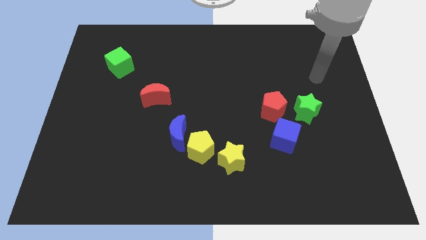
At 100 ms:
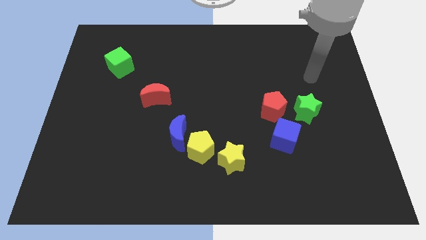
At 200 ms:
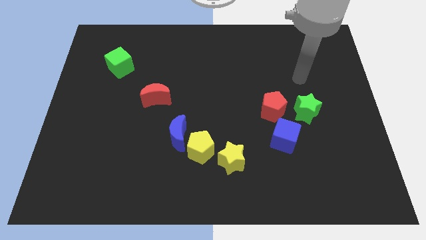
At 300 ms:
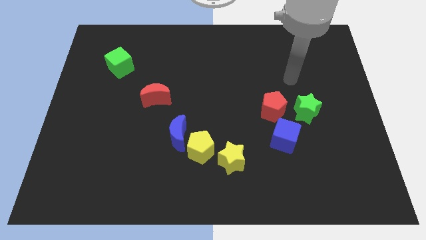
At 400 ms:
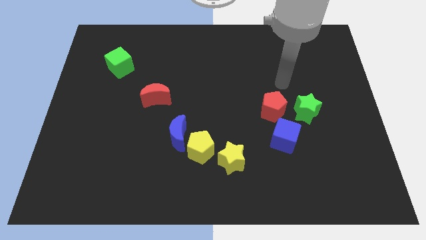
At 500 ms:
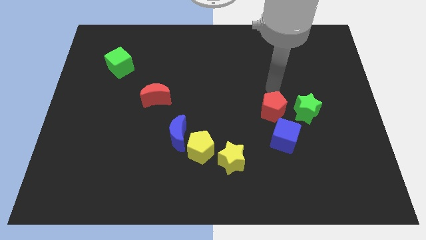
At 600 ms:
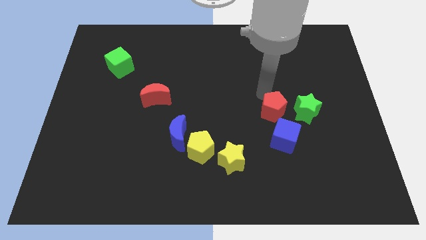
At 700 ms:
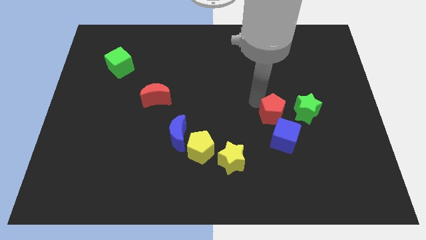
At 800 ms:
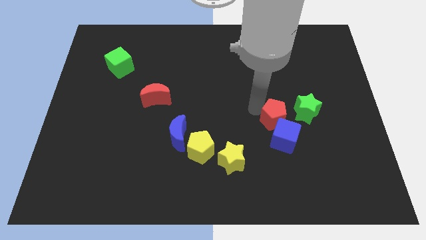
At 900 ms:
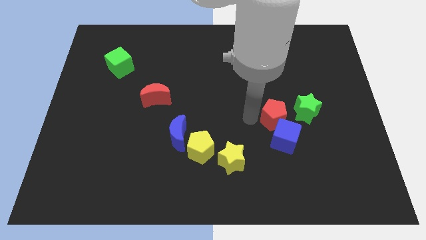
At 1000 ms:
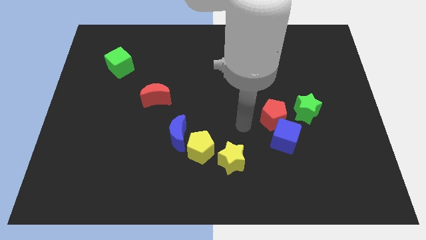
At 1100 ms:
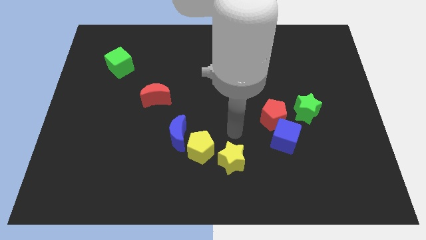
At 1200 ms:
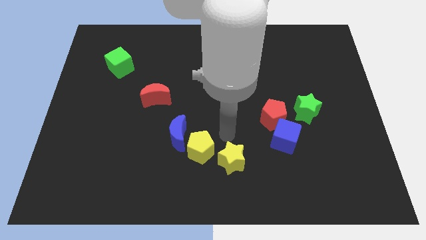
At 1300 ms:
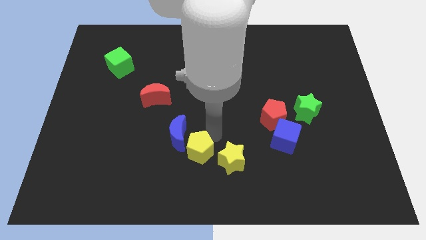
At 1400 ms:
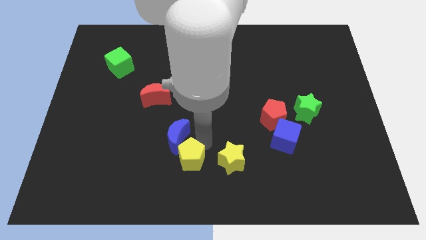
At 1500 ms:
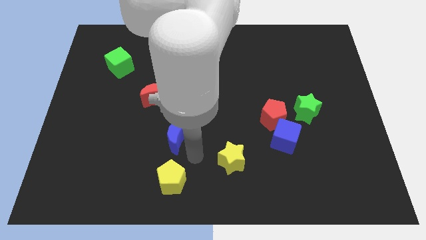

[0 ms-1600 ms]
move the blue moon away from the yellow pentagon

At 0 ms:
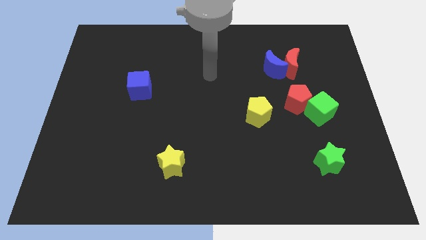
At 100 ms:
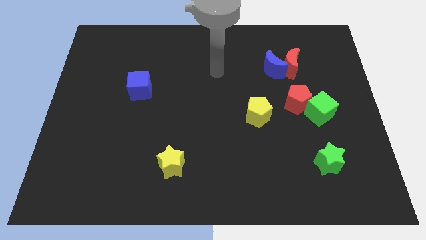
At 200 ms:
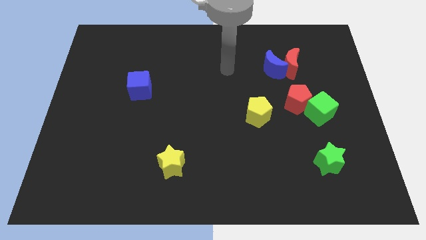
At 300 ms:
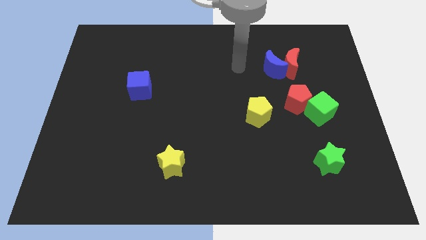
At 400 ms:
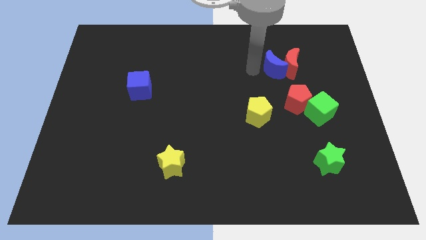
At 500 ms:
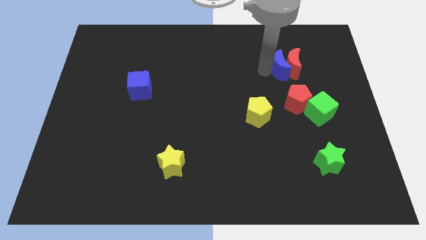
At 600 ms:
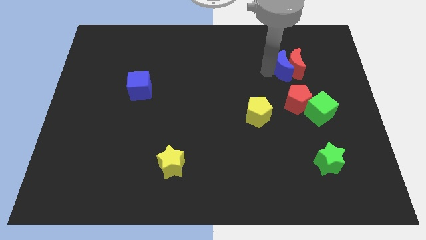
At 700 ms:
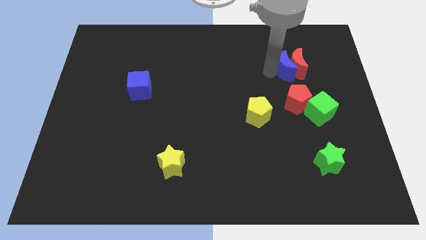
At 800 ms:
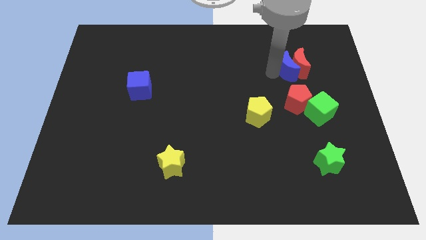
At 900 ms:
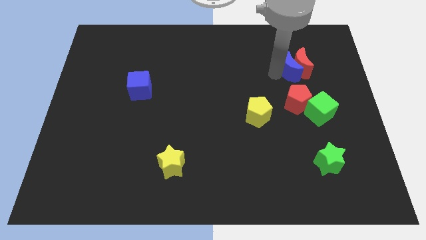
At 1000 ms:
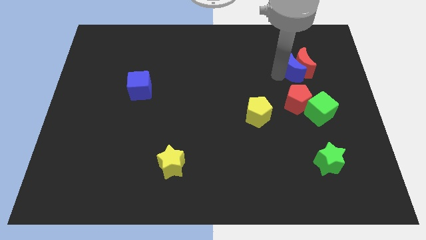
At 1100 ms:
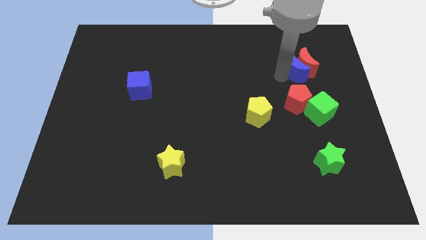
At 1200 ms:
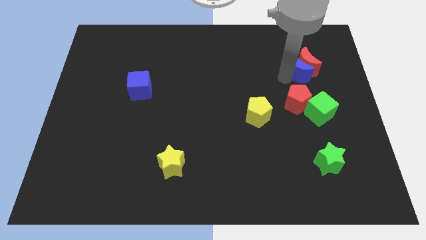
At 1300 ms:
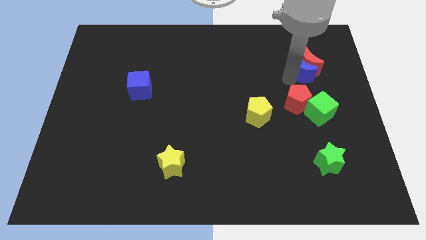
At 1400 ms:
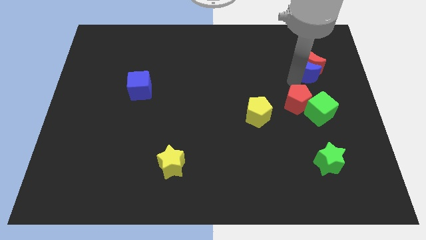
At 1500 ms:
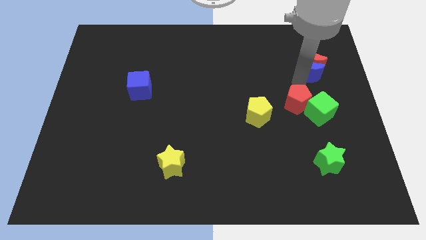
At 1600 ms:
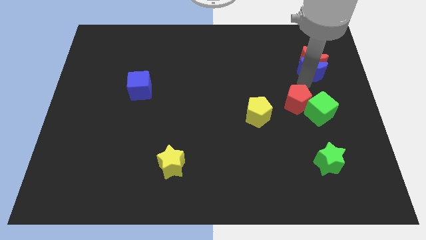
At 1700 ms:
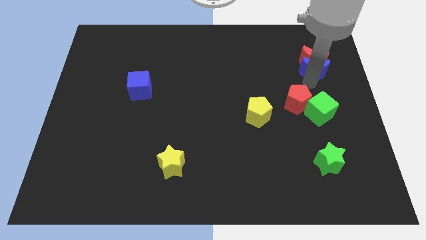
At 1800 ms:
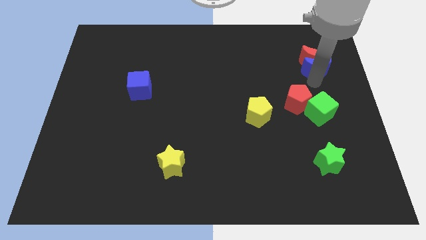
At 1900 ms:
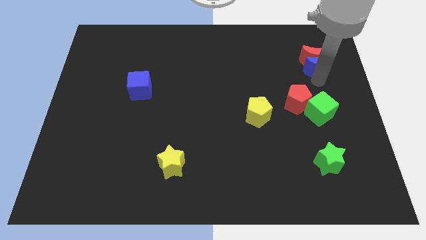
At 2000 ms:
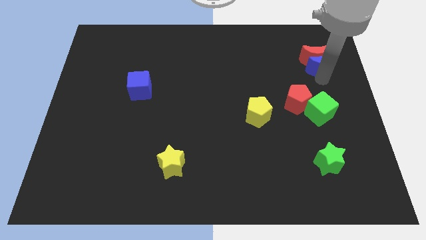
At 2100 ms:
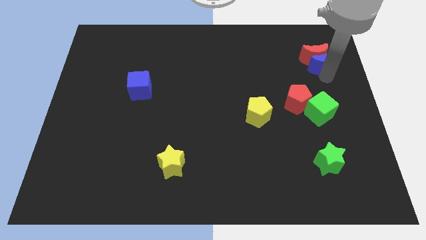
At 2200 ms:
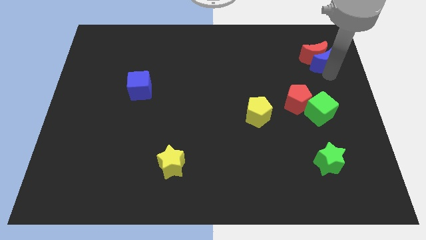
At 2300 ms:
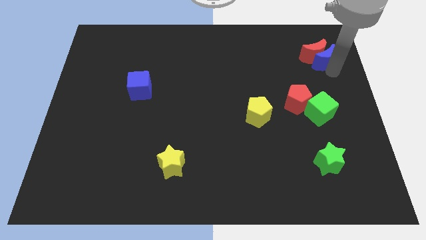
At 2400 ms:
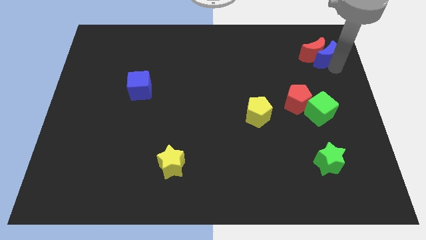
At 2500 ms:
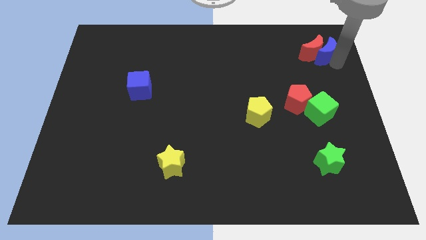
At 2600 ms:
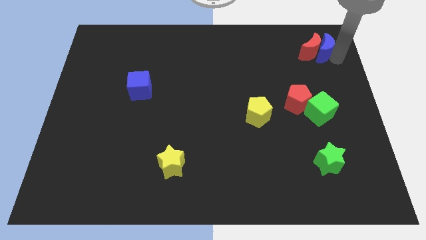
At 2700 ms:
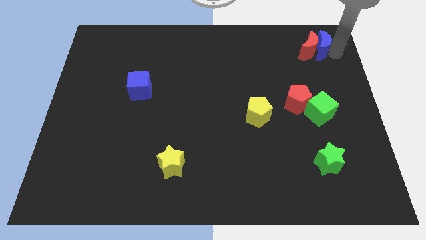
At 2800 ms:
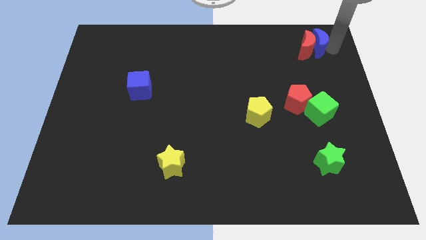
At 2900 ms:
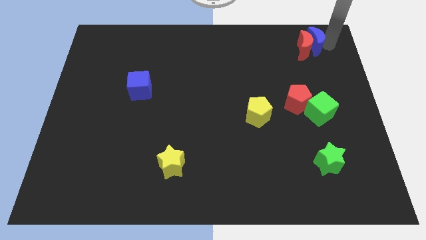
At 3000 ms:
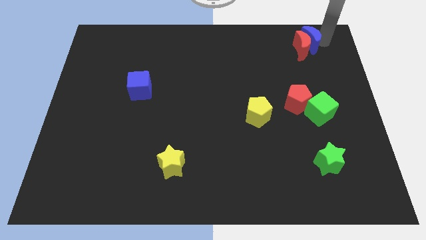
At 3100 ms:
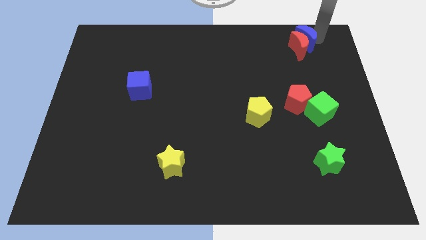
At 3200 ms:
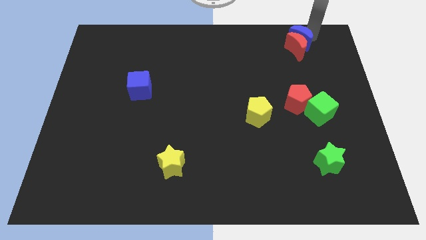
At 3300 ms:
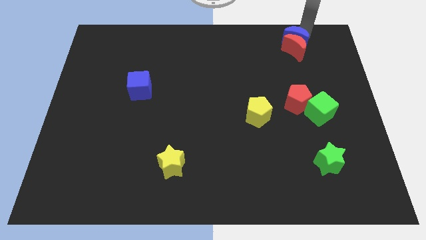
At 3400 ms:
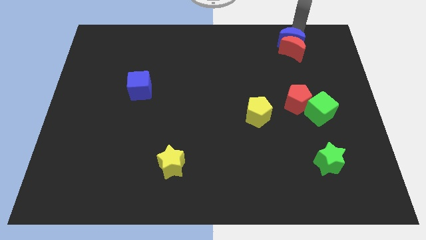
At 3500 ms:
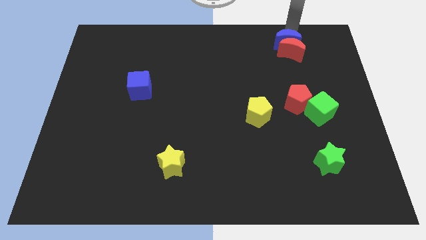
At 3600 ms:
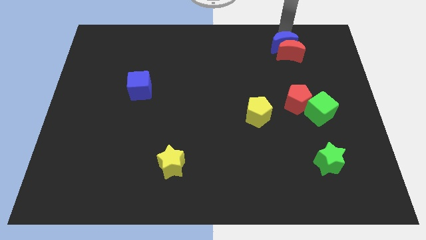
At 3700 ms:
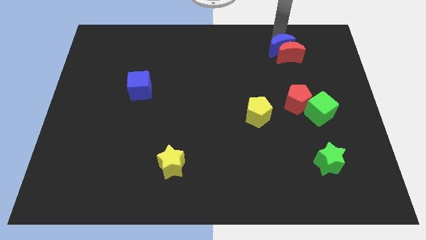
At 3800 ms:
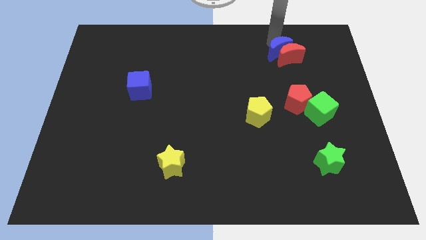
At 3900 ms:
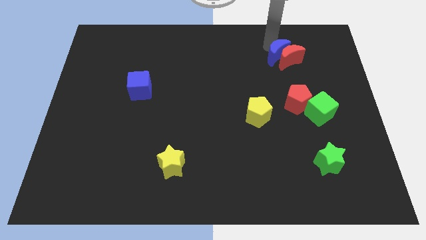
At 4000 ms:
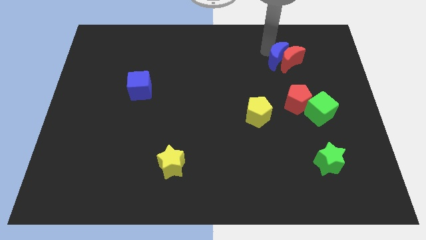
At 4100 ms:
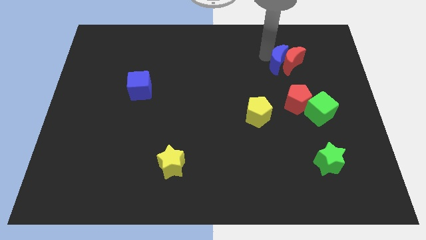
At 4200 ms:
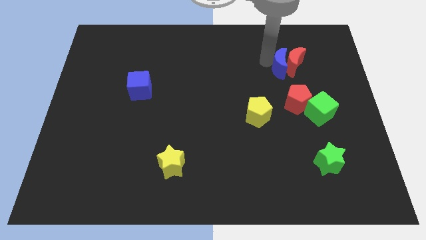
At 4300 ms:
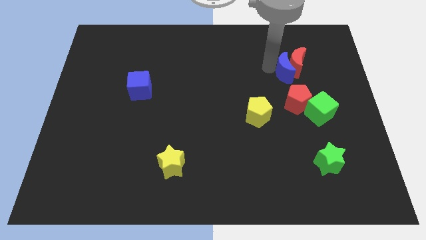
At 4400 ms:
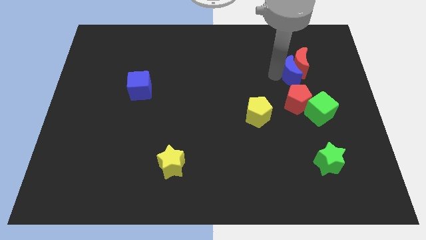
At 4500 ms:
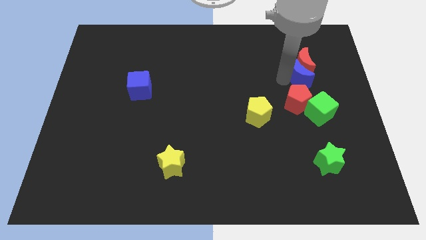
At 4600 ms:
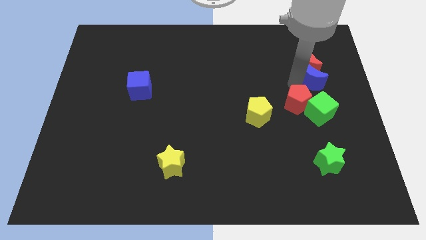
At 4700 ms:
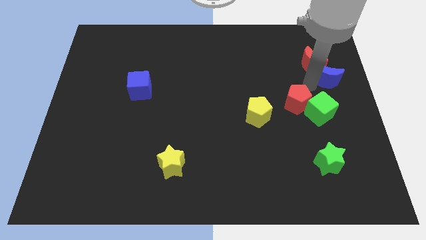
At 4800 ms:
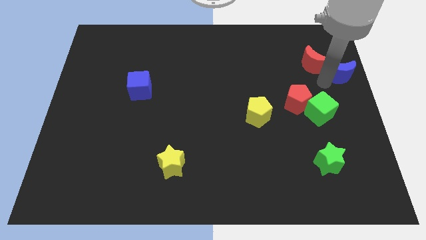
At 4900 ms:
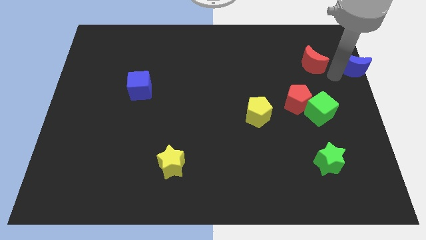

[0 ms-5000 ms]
move the red moon away from the blue moon

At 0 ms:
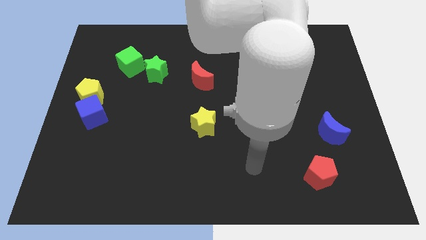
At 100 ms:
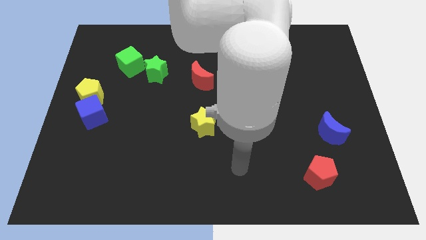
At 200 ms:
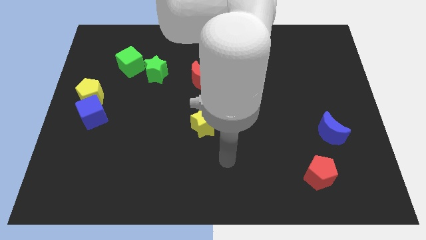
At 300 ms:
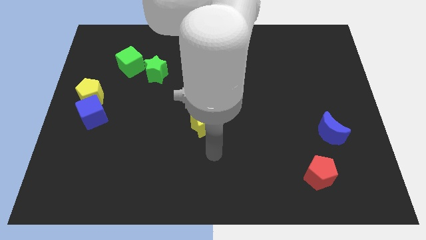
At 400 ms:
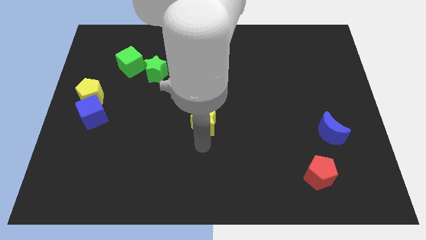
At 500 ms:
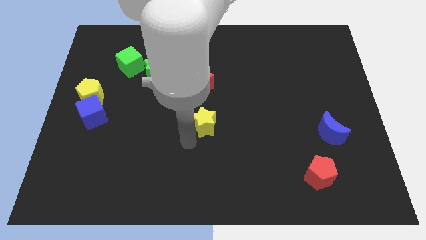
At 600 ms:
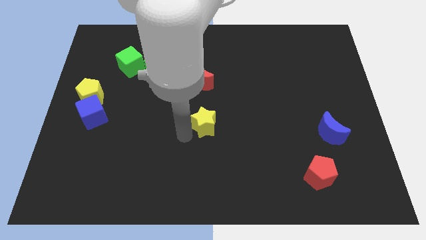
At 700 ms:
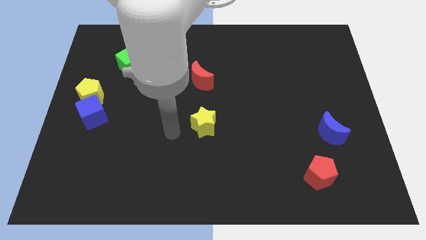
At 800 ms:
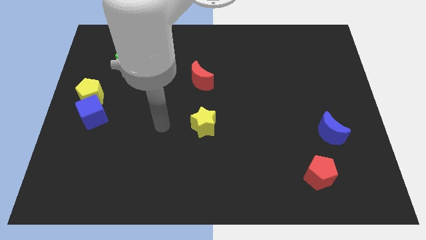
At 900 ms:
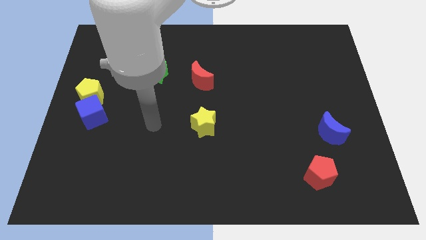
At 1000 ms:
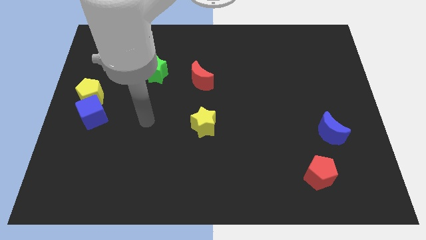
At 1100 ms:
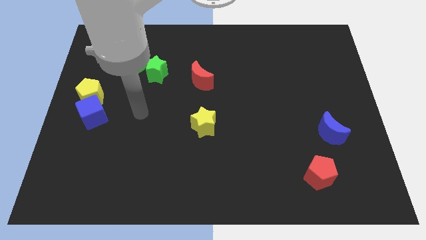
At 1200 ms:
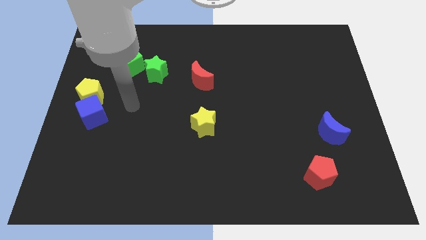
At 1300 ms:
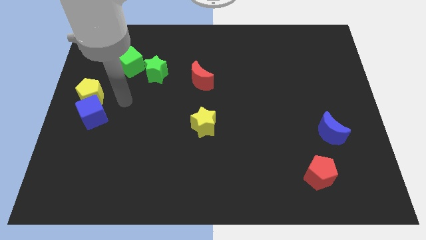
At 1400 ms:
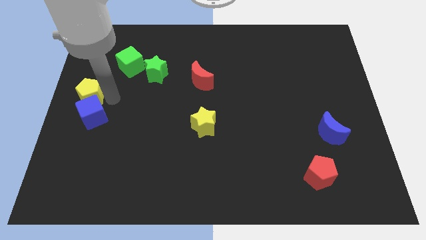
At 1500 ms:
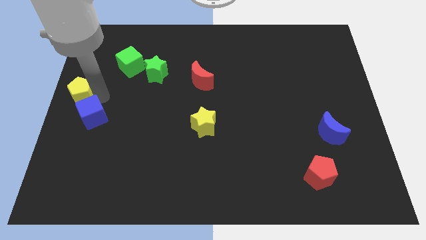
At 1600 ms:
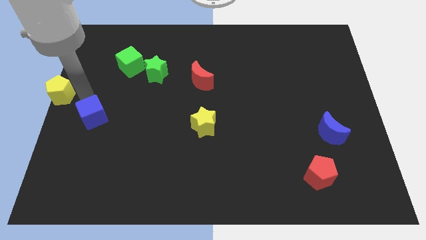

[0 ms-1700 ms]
pull the blue cube apart from the yellow pentagon

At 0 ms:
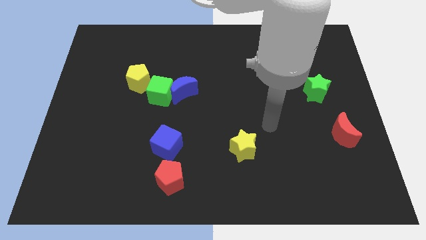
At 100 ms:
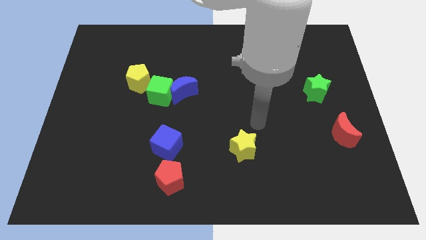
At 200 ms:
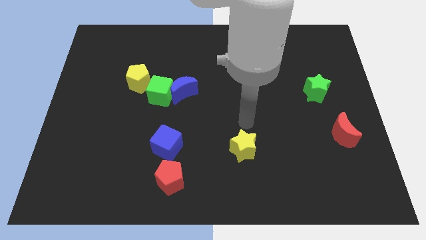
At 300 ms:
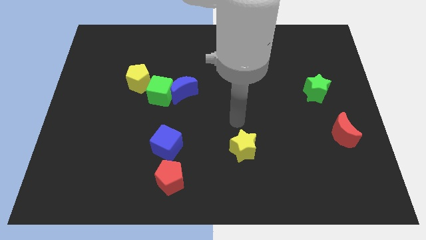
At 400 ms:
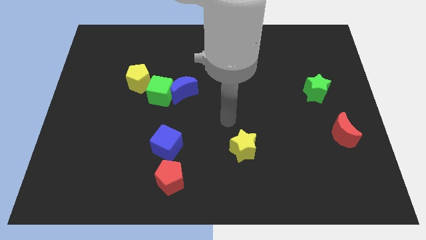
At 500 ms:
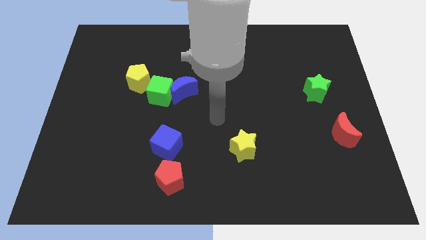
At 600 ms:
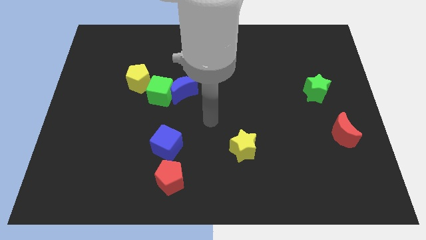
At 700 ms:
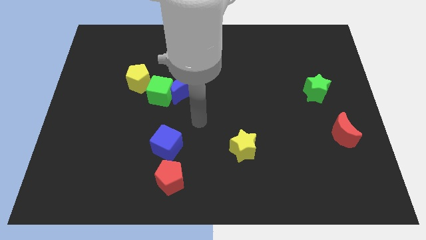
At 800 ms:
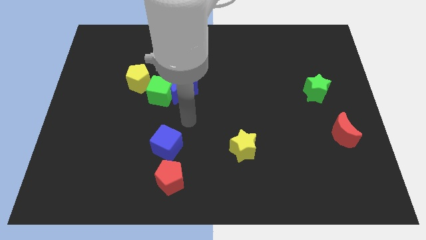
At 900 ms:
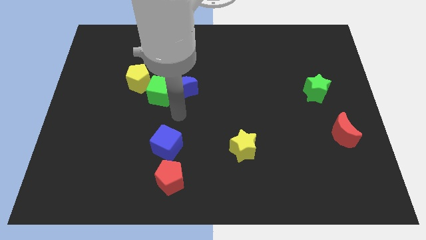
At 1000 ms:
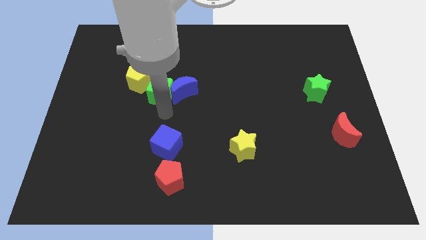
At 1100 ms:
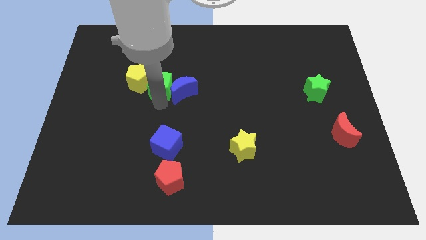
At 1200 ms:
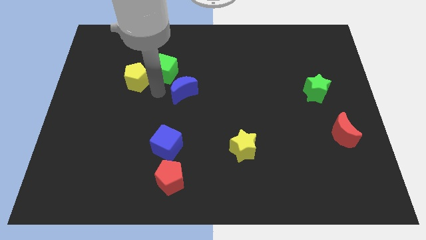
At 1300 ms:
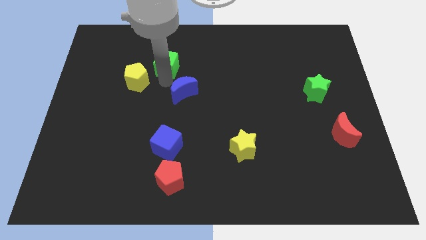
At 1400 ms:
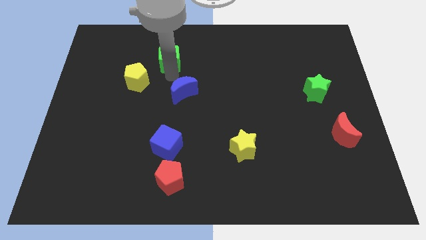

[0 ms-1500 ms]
move the blue moon away from the green cube
